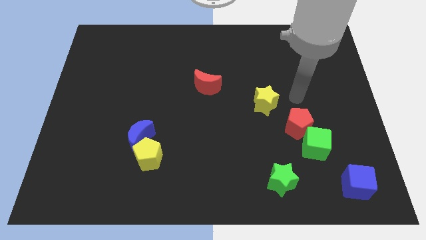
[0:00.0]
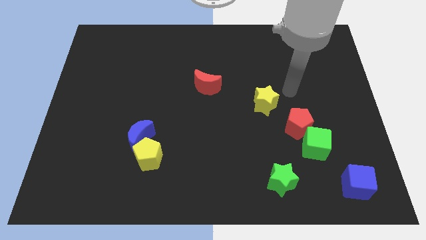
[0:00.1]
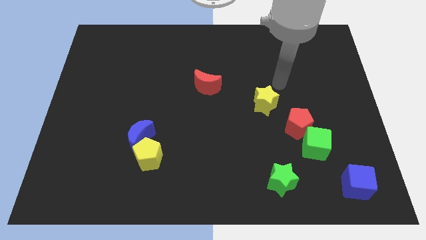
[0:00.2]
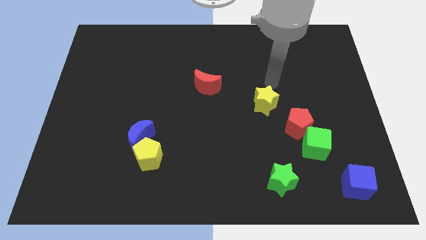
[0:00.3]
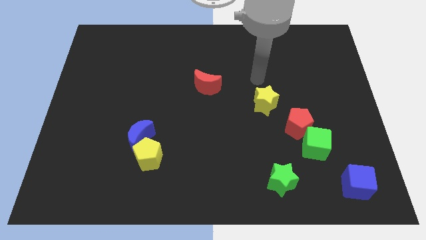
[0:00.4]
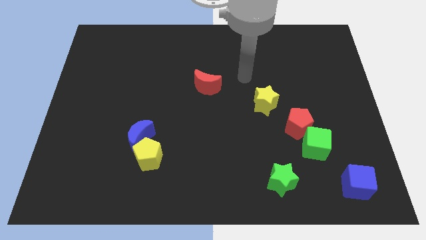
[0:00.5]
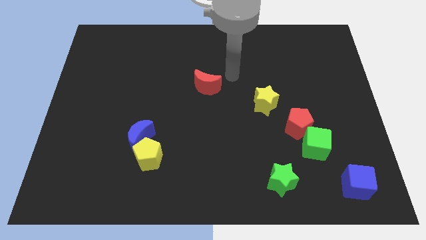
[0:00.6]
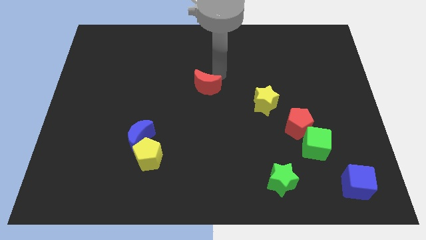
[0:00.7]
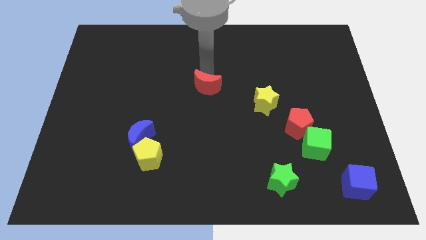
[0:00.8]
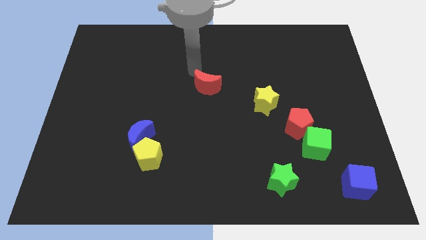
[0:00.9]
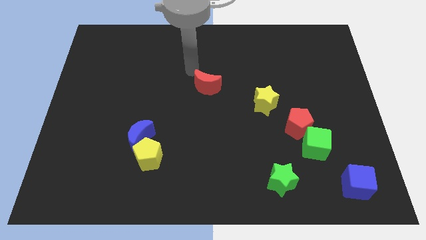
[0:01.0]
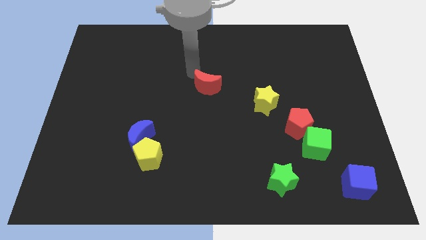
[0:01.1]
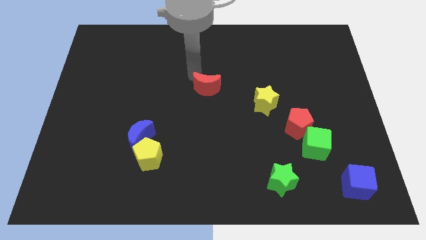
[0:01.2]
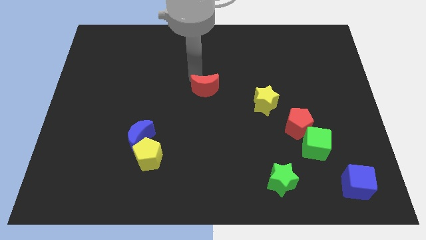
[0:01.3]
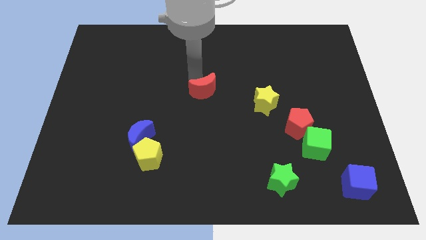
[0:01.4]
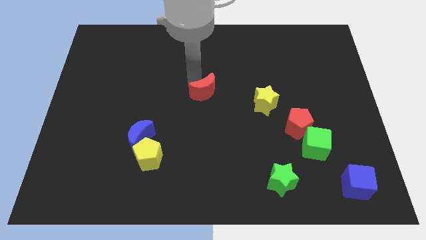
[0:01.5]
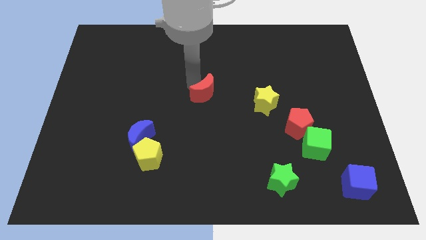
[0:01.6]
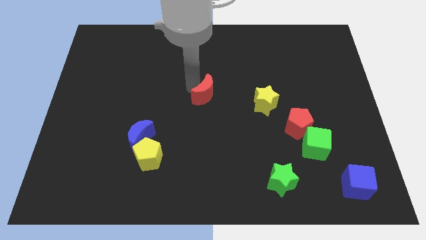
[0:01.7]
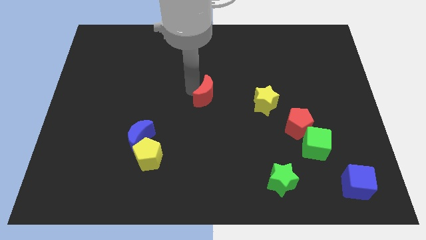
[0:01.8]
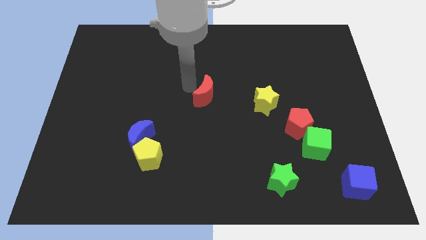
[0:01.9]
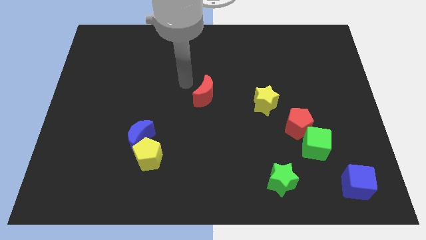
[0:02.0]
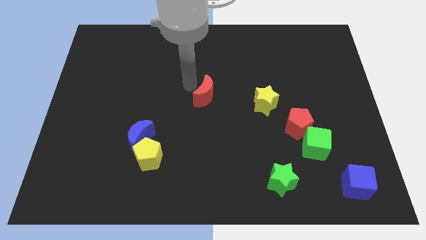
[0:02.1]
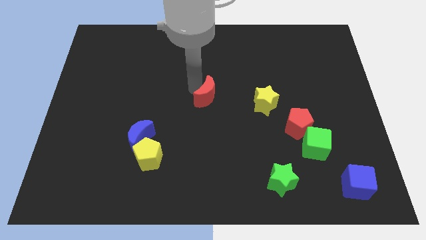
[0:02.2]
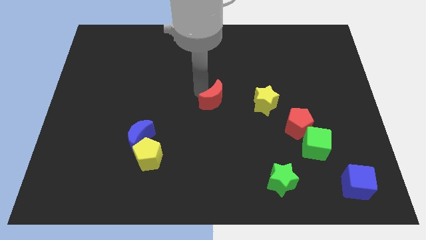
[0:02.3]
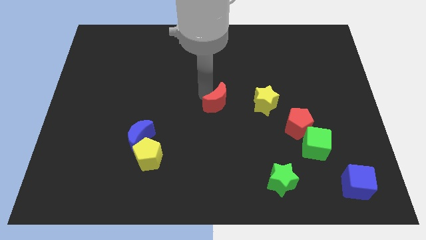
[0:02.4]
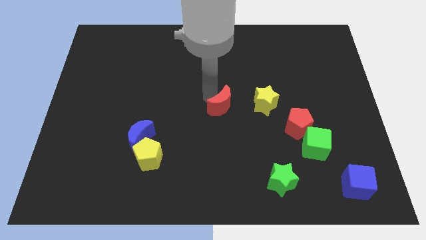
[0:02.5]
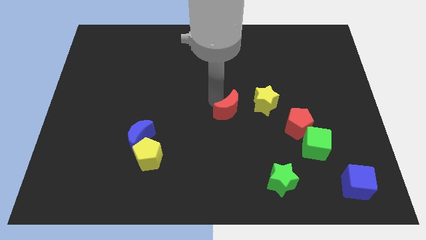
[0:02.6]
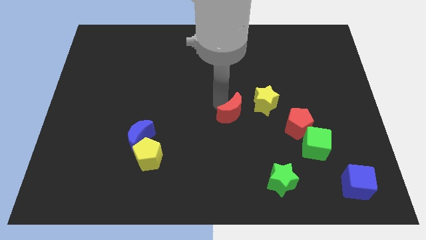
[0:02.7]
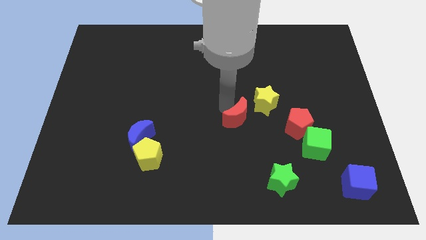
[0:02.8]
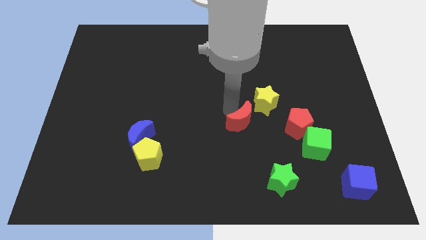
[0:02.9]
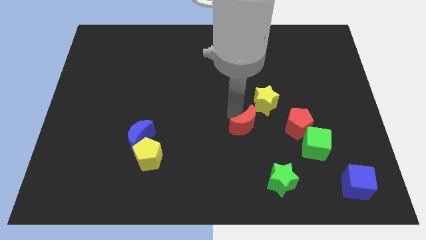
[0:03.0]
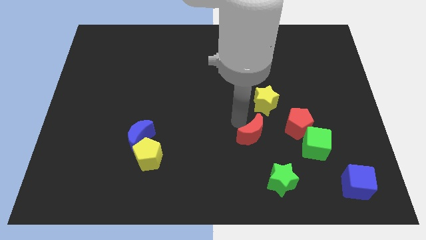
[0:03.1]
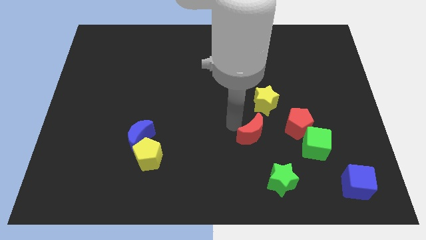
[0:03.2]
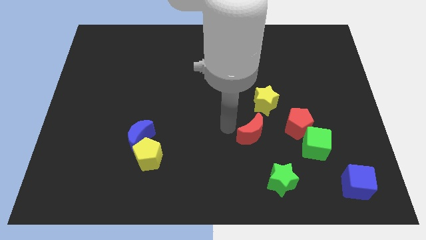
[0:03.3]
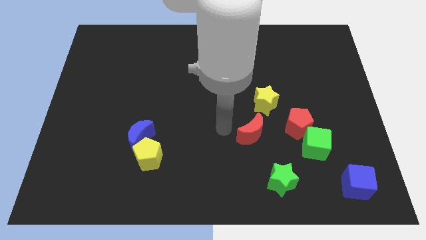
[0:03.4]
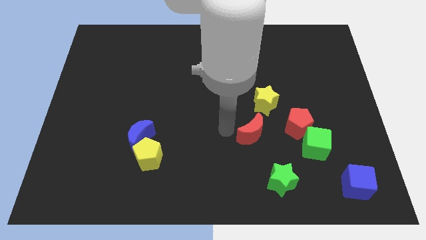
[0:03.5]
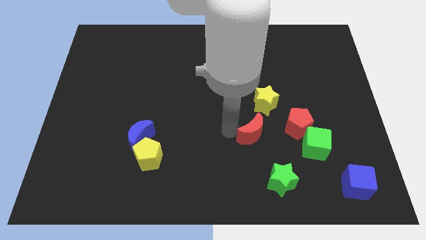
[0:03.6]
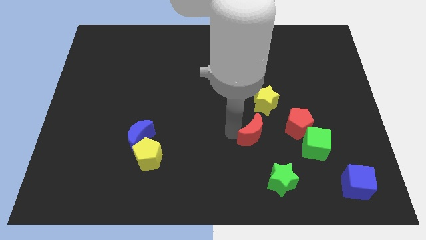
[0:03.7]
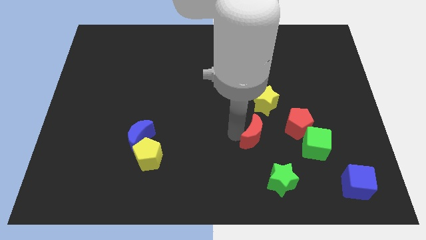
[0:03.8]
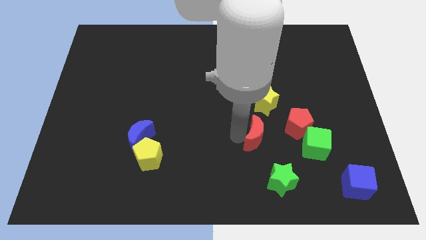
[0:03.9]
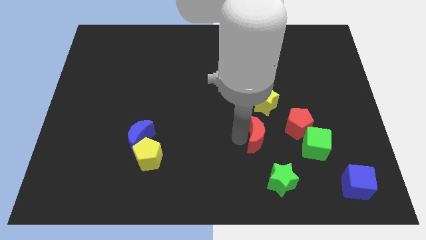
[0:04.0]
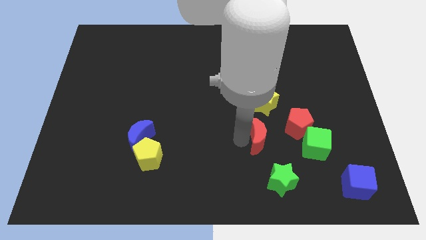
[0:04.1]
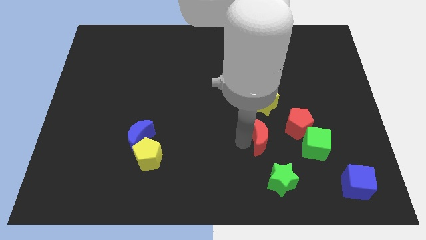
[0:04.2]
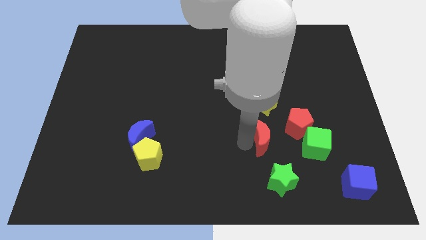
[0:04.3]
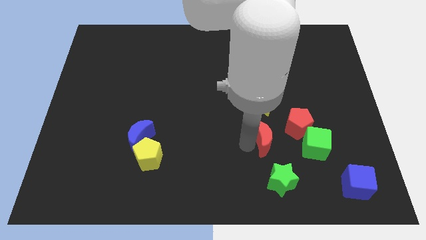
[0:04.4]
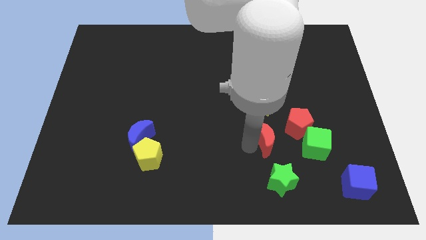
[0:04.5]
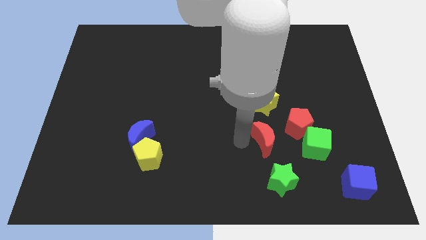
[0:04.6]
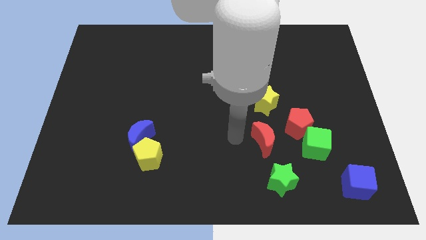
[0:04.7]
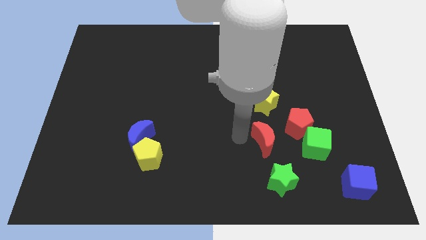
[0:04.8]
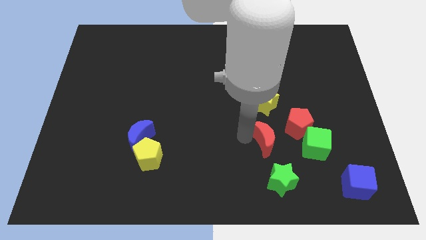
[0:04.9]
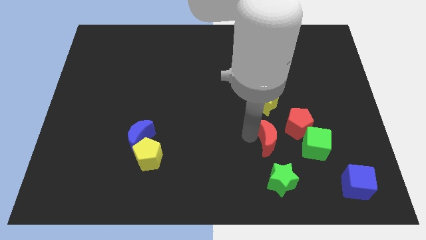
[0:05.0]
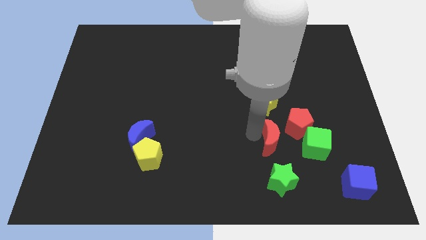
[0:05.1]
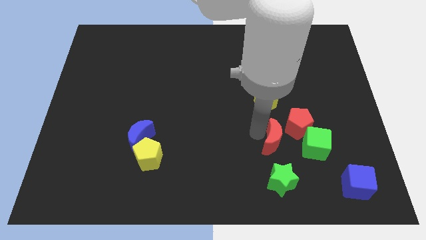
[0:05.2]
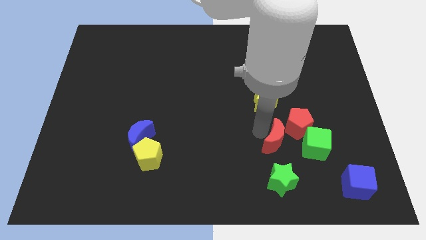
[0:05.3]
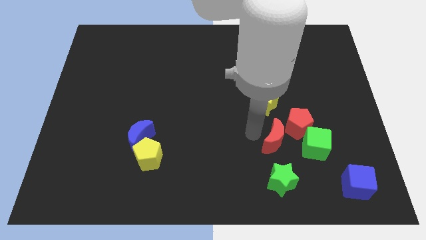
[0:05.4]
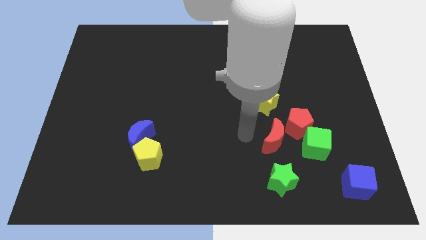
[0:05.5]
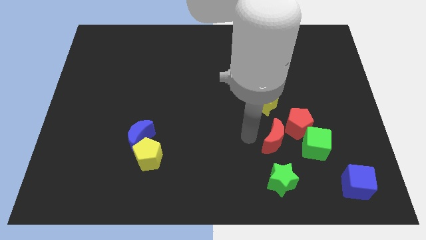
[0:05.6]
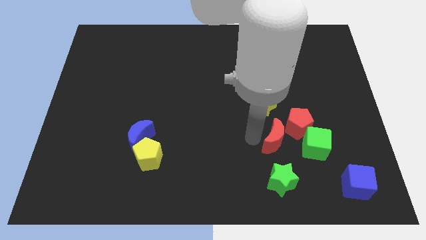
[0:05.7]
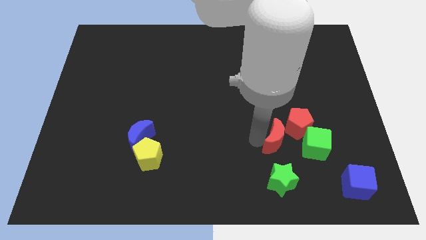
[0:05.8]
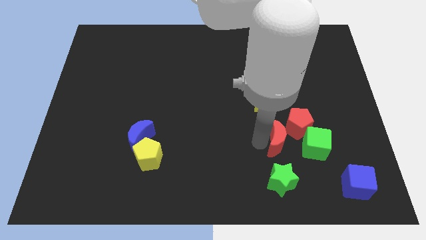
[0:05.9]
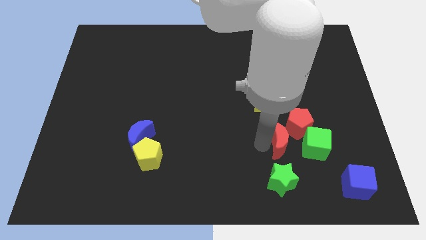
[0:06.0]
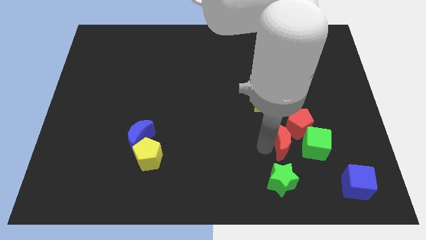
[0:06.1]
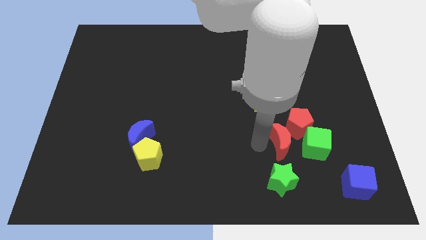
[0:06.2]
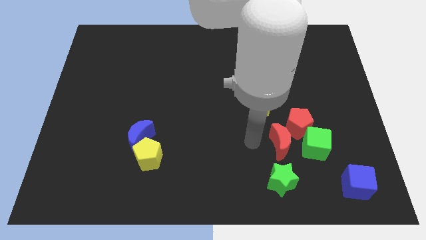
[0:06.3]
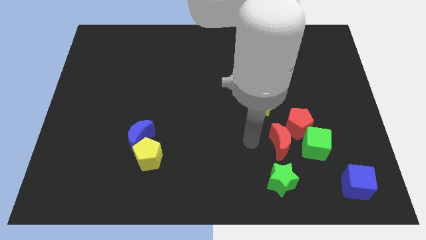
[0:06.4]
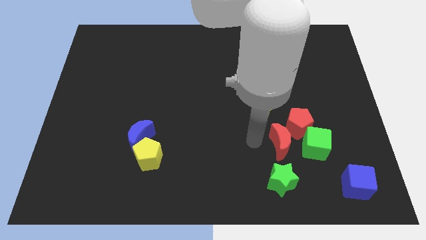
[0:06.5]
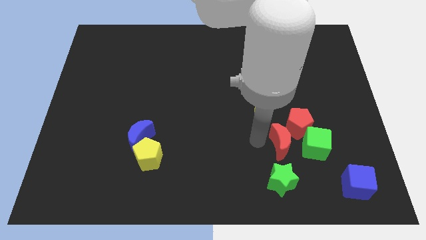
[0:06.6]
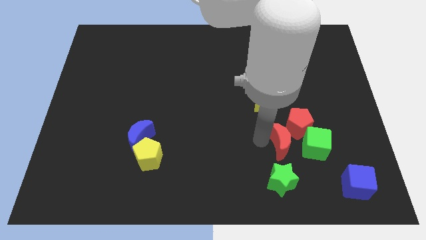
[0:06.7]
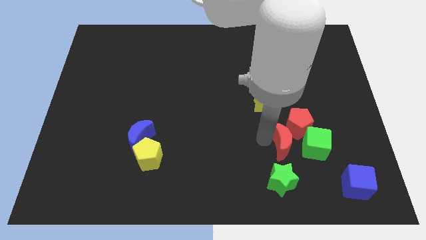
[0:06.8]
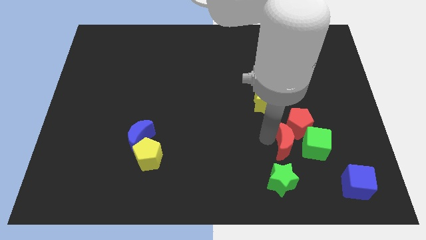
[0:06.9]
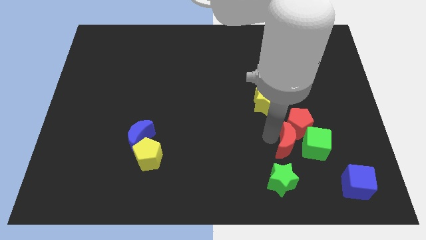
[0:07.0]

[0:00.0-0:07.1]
push the red moon to the green cube

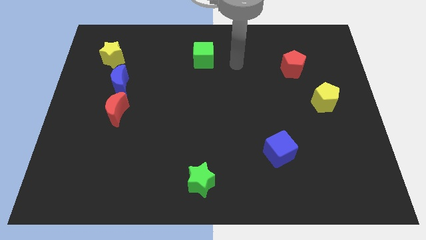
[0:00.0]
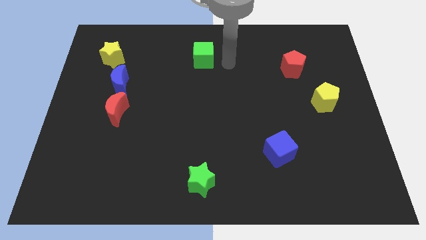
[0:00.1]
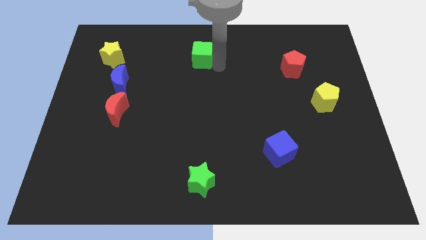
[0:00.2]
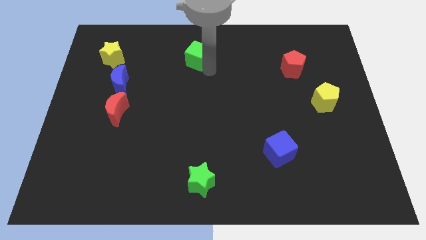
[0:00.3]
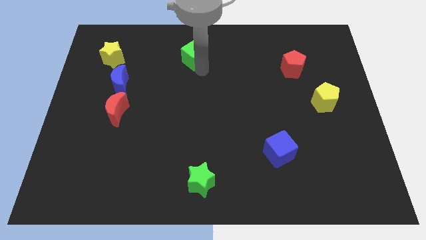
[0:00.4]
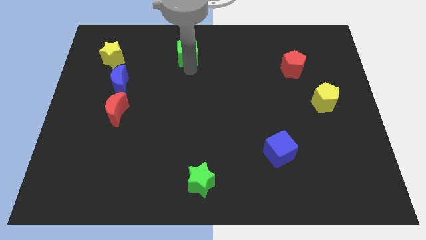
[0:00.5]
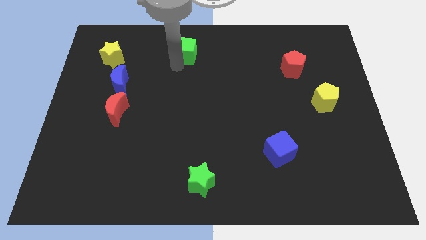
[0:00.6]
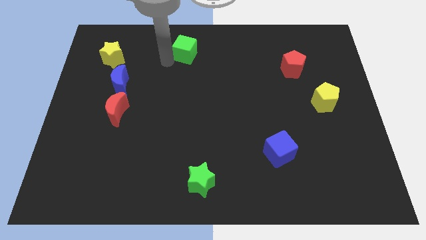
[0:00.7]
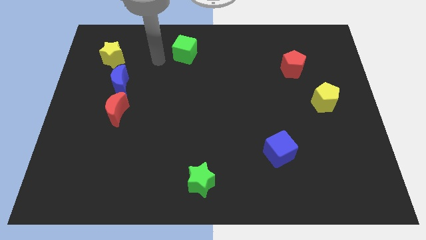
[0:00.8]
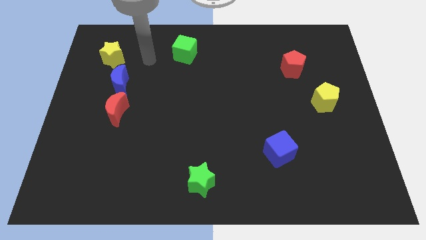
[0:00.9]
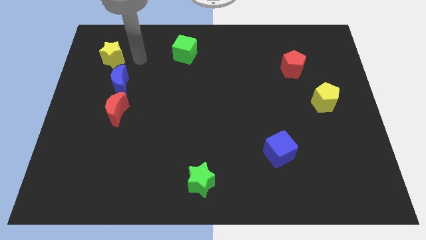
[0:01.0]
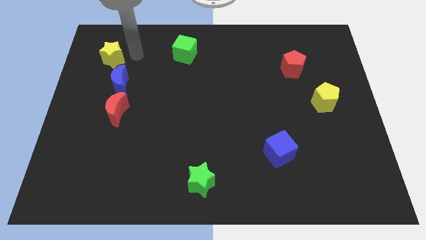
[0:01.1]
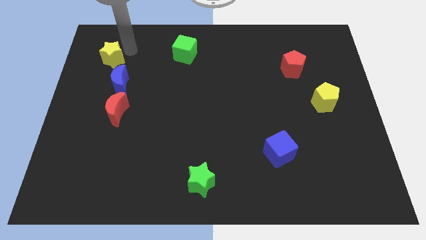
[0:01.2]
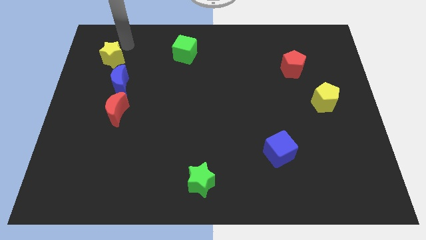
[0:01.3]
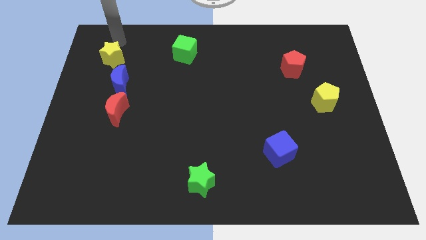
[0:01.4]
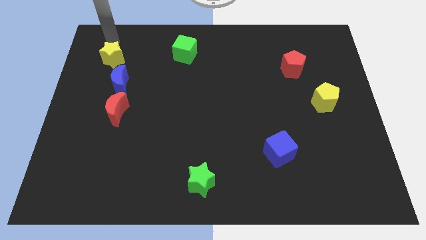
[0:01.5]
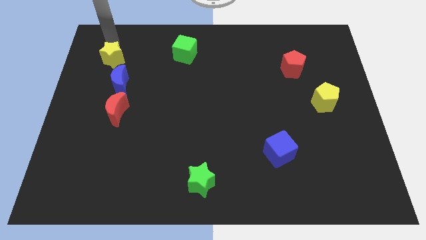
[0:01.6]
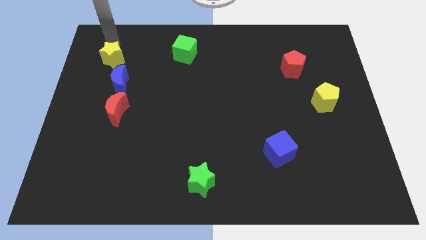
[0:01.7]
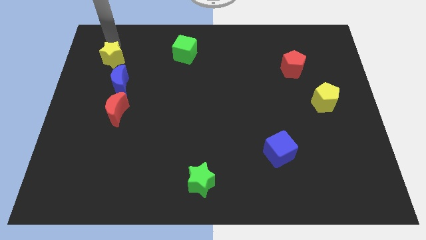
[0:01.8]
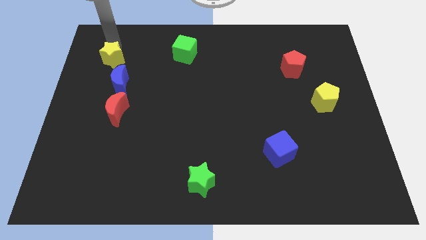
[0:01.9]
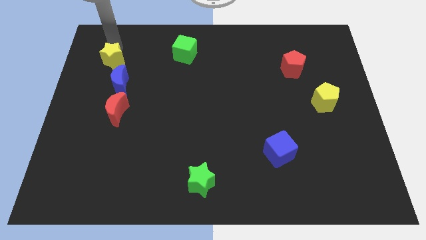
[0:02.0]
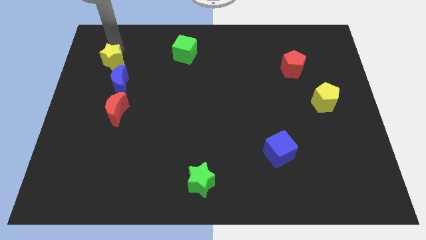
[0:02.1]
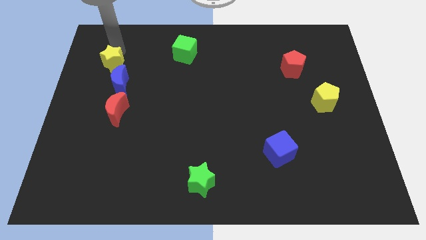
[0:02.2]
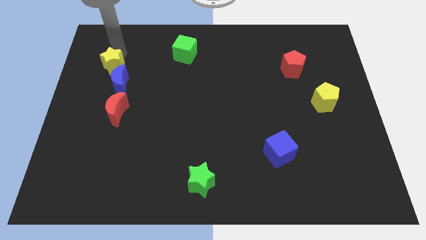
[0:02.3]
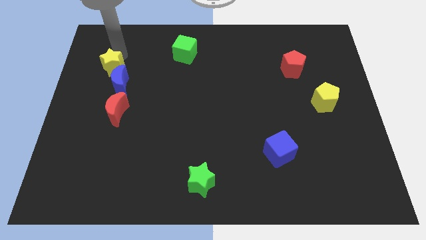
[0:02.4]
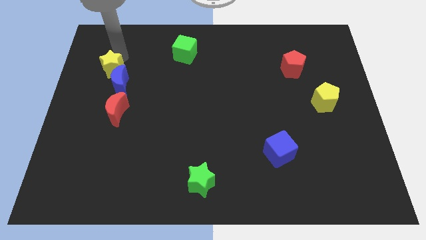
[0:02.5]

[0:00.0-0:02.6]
move the yellow star next to the blue moon
